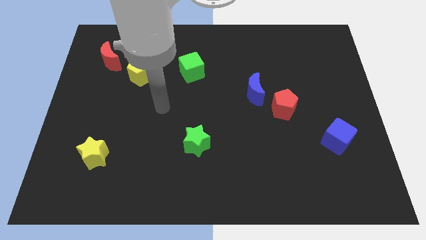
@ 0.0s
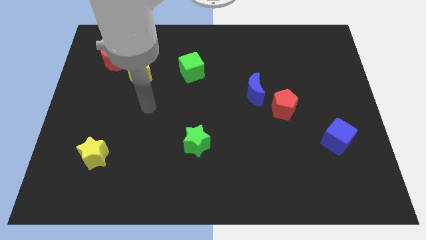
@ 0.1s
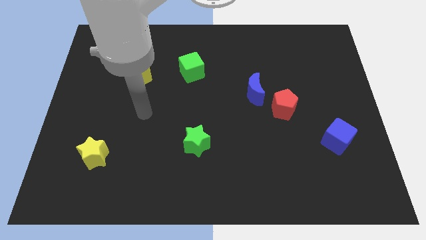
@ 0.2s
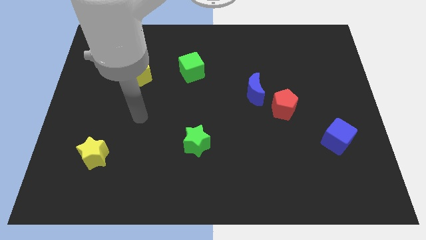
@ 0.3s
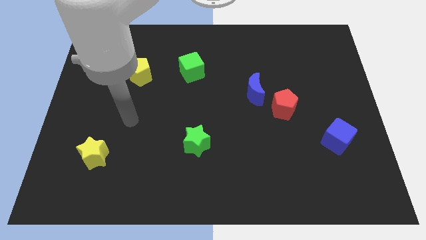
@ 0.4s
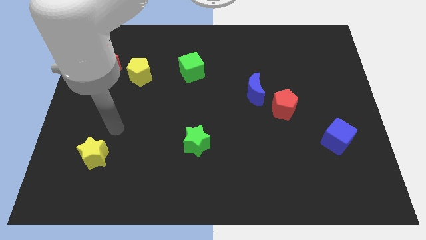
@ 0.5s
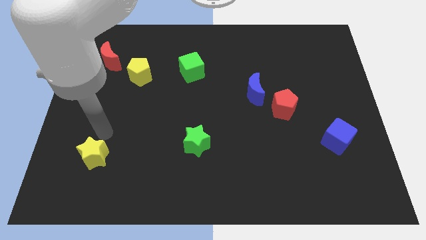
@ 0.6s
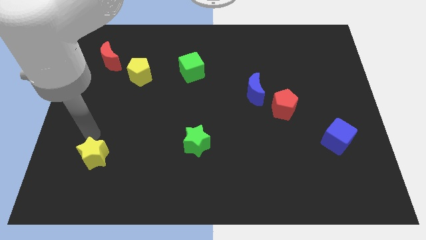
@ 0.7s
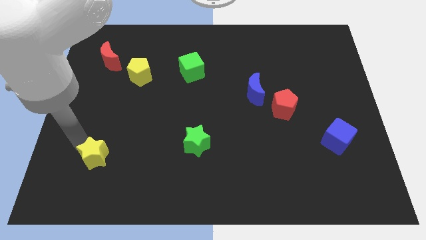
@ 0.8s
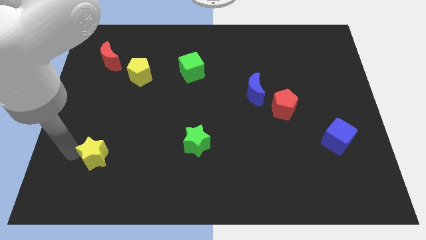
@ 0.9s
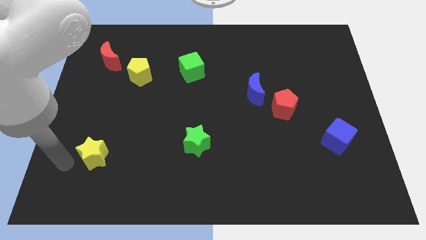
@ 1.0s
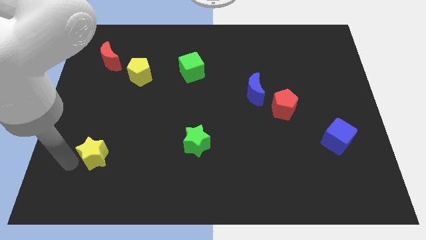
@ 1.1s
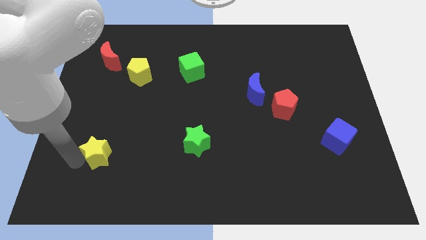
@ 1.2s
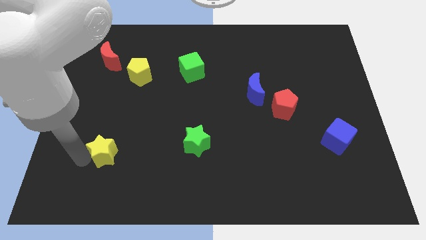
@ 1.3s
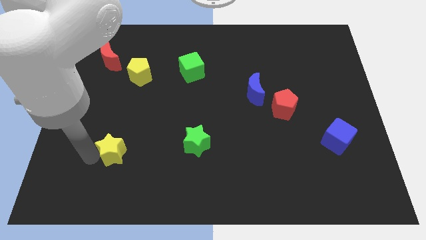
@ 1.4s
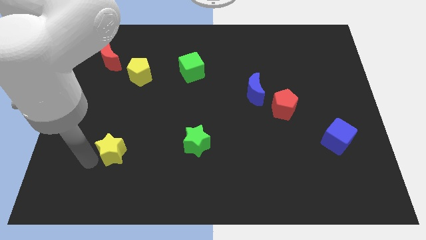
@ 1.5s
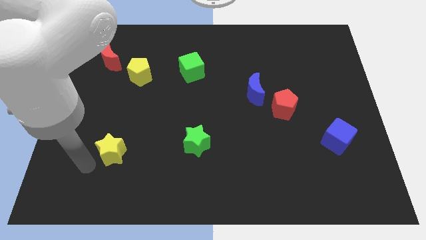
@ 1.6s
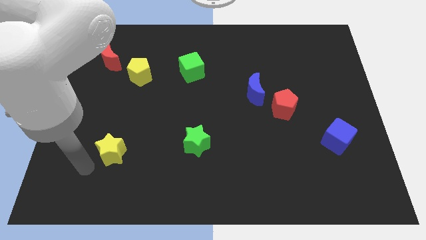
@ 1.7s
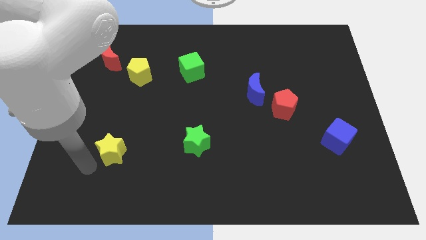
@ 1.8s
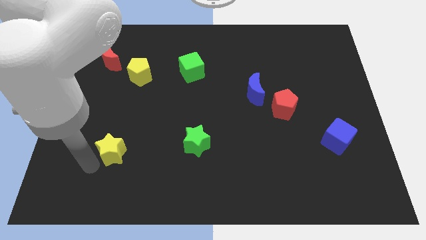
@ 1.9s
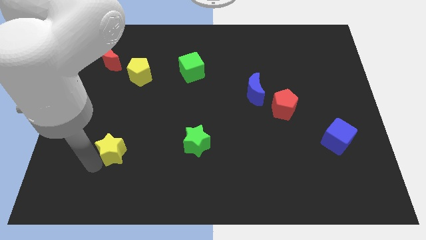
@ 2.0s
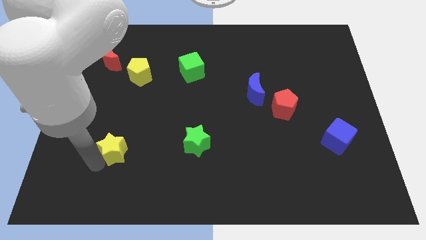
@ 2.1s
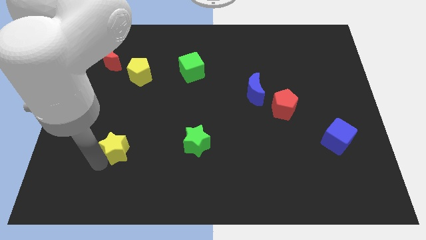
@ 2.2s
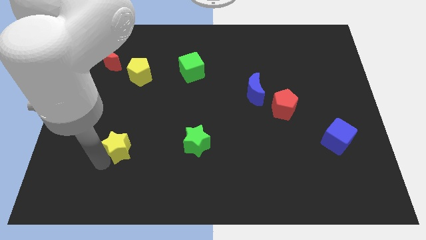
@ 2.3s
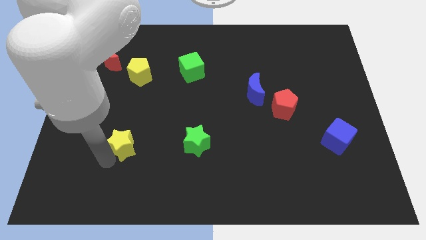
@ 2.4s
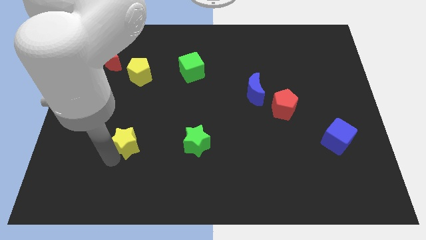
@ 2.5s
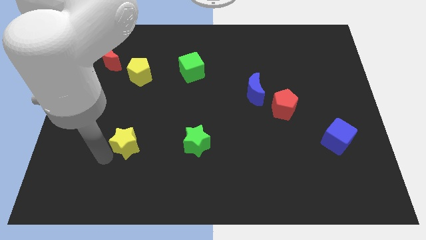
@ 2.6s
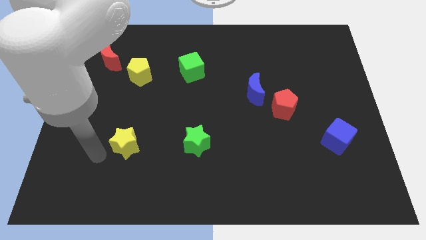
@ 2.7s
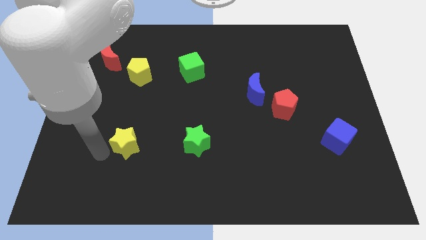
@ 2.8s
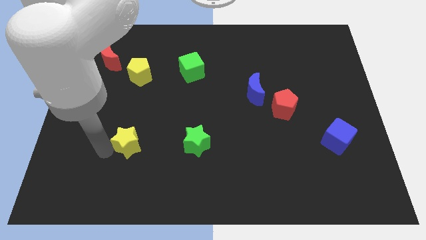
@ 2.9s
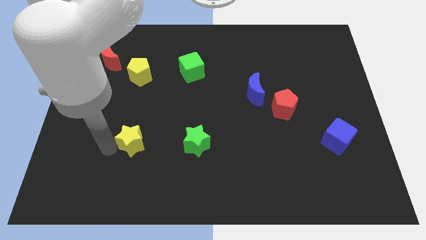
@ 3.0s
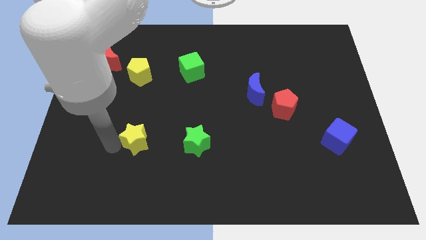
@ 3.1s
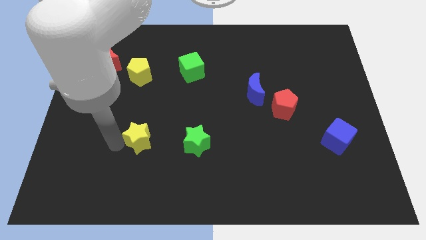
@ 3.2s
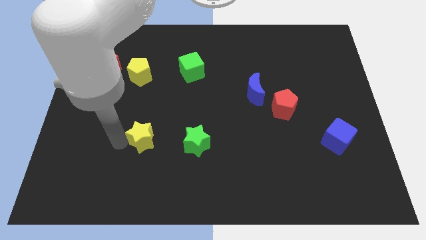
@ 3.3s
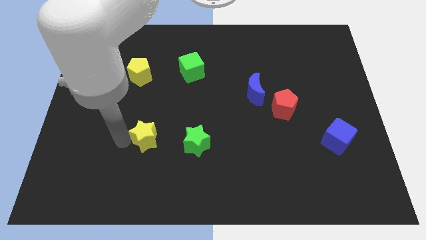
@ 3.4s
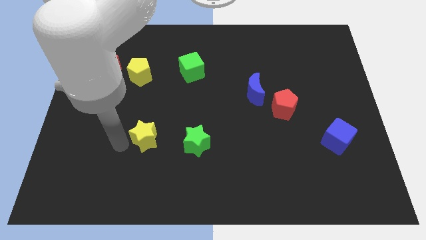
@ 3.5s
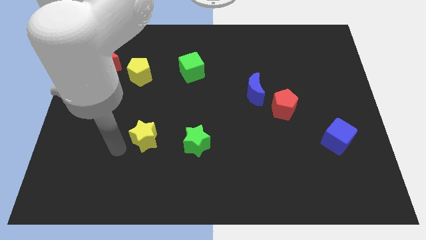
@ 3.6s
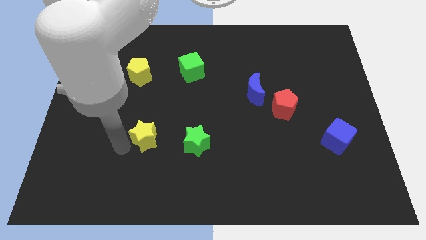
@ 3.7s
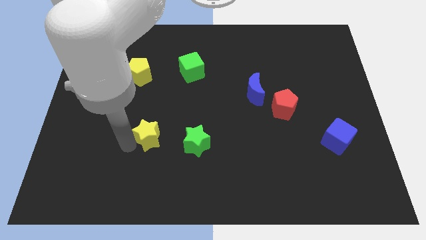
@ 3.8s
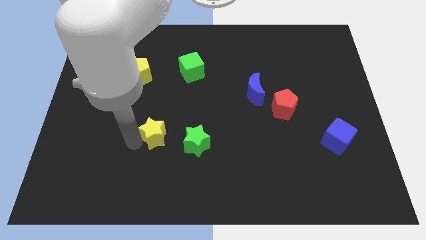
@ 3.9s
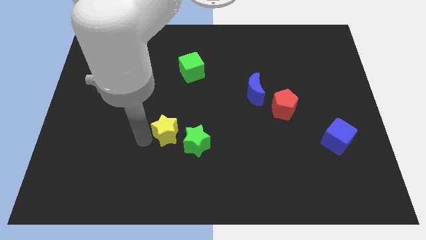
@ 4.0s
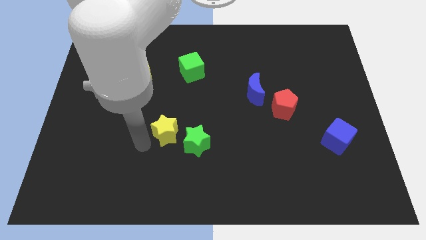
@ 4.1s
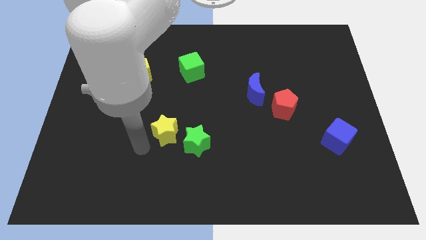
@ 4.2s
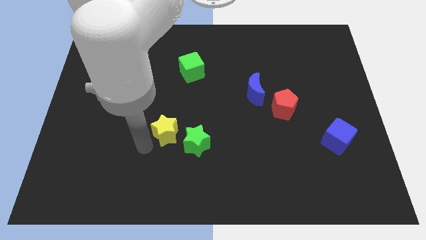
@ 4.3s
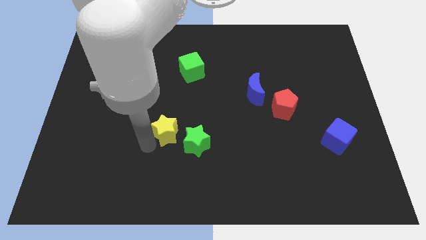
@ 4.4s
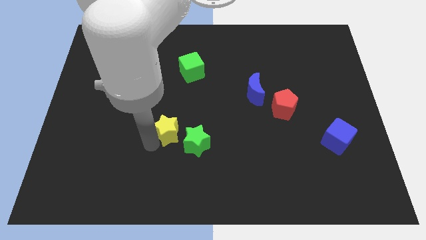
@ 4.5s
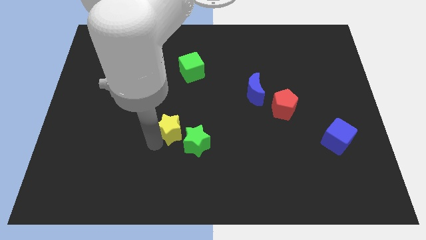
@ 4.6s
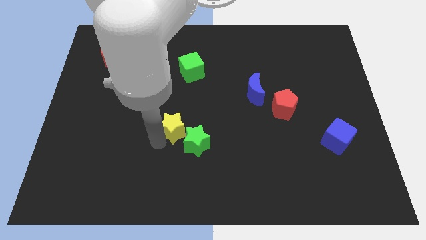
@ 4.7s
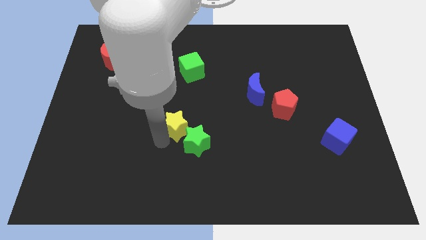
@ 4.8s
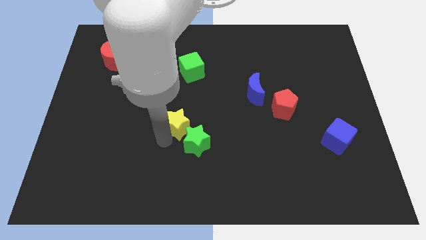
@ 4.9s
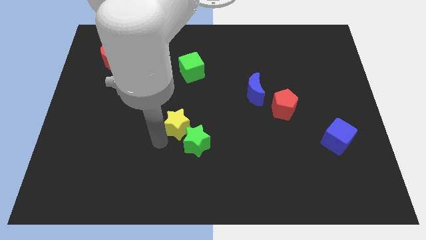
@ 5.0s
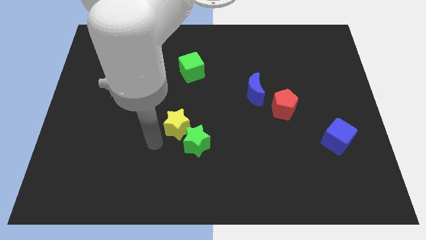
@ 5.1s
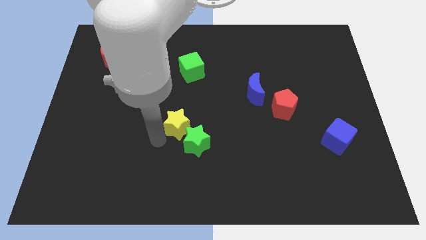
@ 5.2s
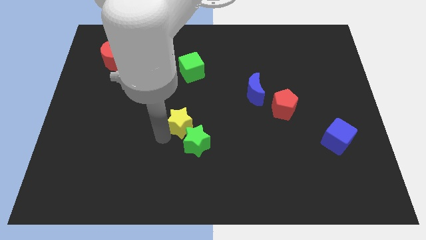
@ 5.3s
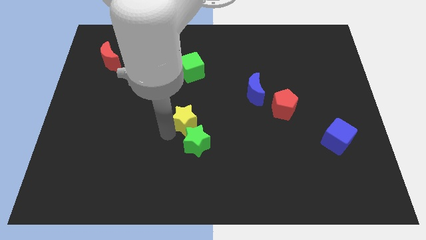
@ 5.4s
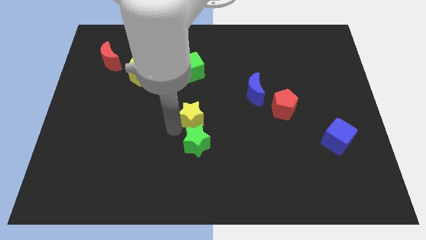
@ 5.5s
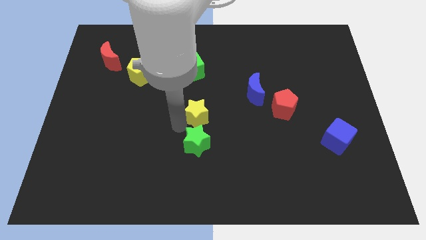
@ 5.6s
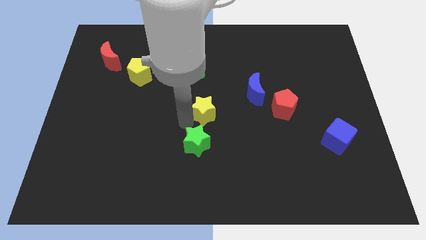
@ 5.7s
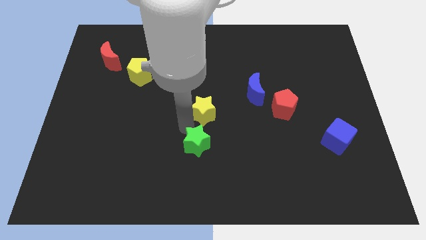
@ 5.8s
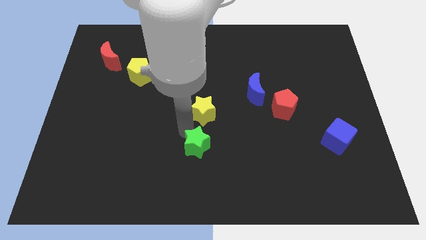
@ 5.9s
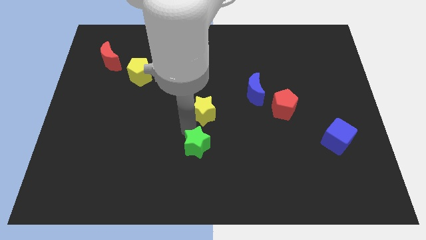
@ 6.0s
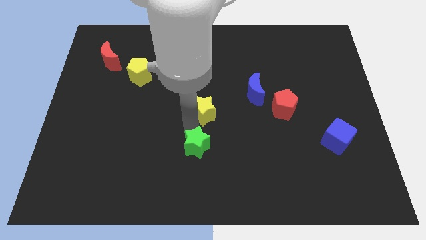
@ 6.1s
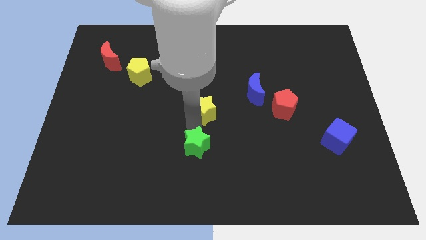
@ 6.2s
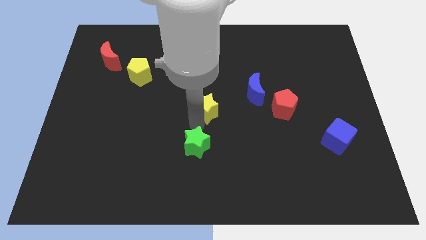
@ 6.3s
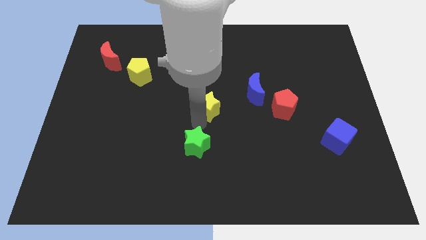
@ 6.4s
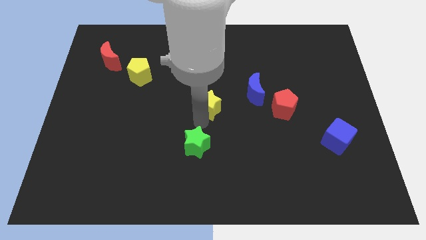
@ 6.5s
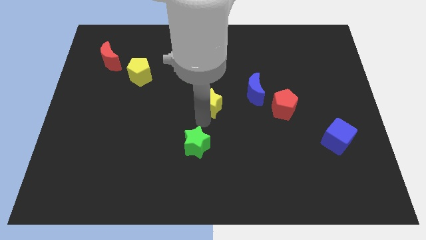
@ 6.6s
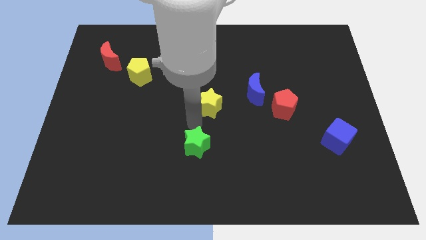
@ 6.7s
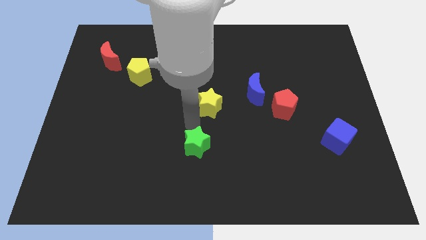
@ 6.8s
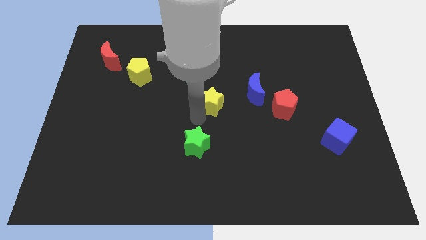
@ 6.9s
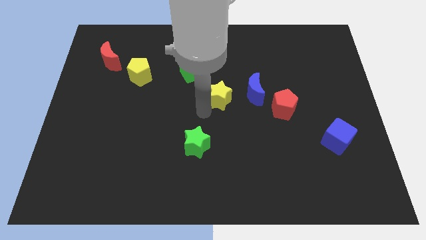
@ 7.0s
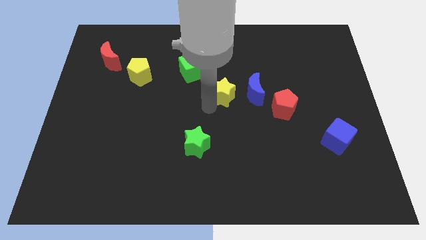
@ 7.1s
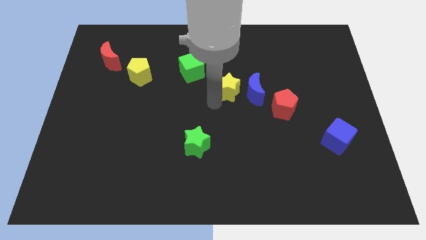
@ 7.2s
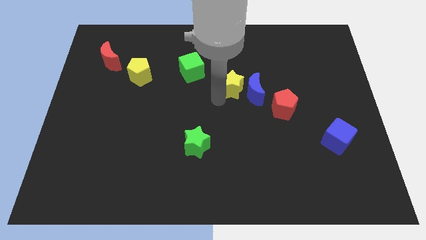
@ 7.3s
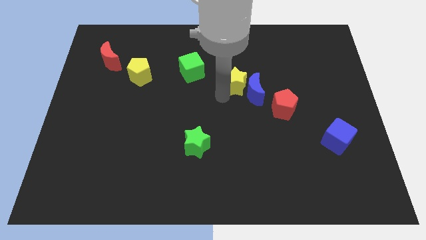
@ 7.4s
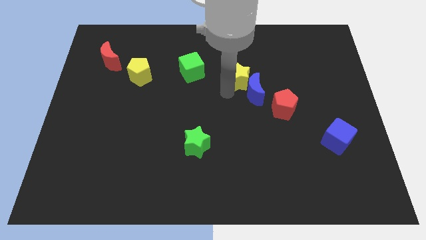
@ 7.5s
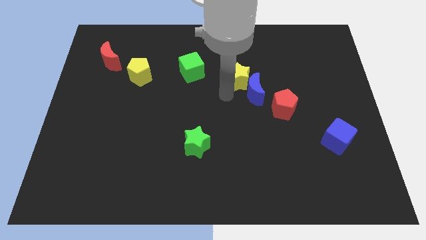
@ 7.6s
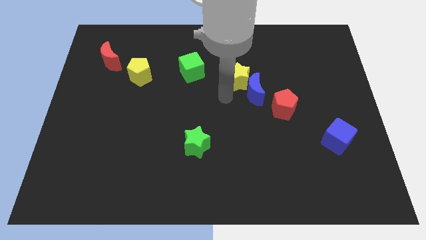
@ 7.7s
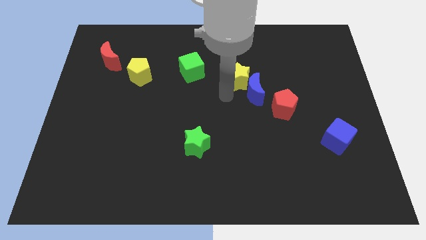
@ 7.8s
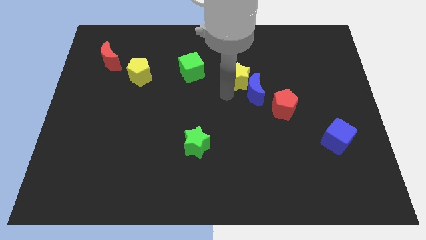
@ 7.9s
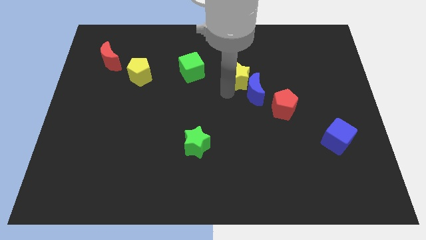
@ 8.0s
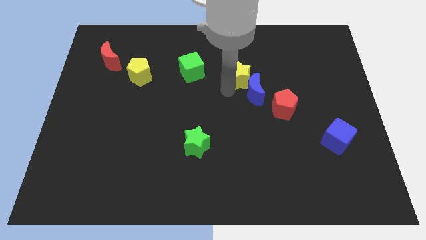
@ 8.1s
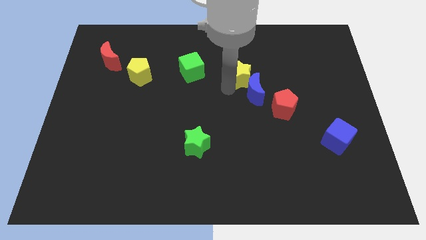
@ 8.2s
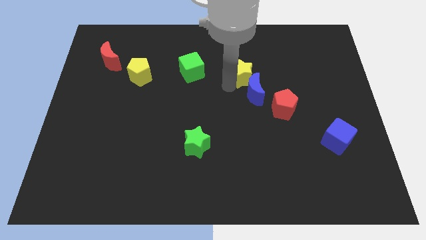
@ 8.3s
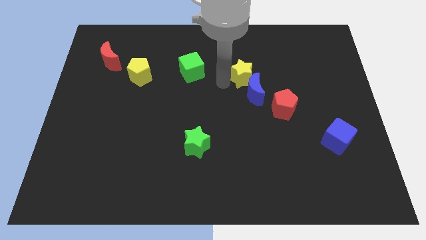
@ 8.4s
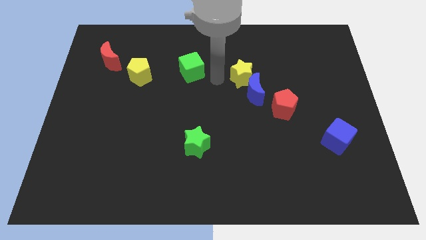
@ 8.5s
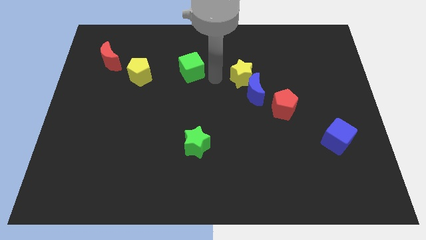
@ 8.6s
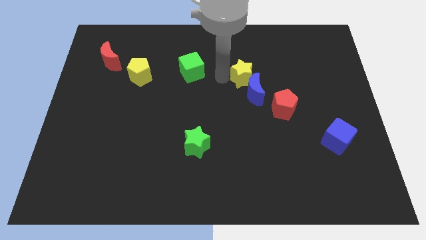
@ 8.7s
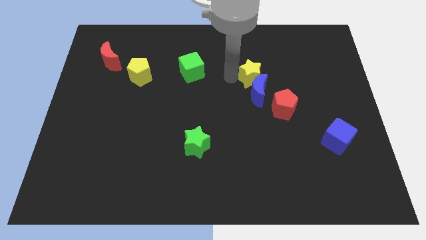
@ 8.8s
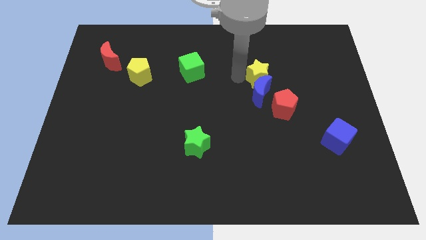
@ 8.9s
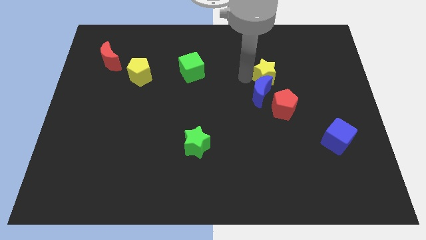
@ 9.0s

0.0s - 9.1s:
put the yellow star above the red pentagon
